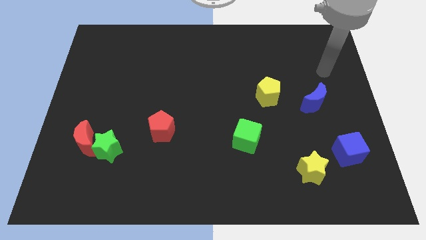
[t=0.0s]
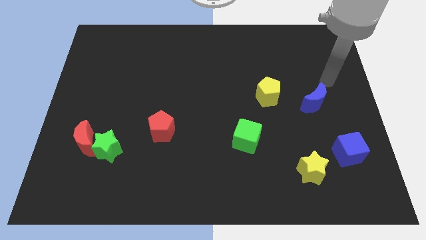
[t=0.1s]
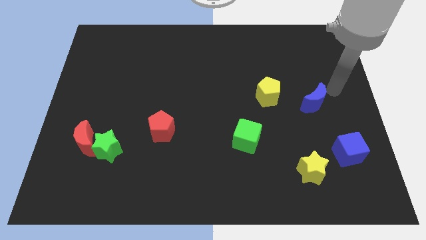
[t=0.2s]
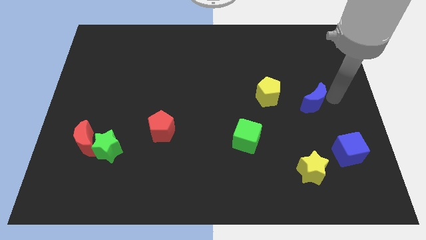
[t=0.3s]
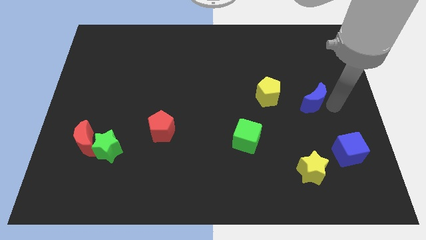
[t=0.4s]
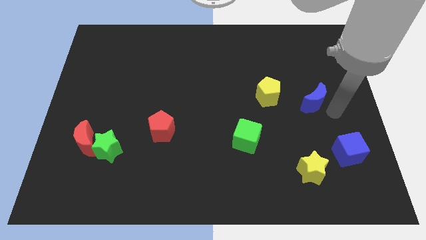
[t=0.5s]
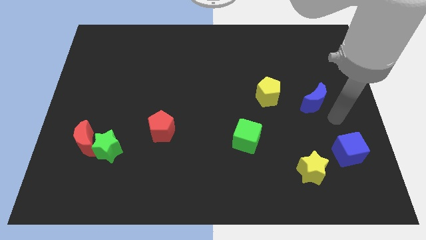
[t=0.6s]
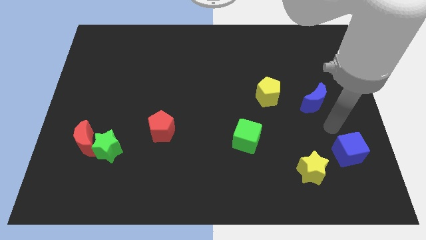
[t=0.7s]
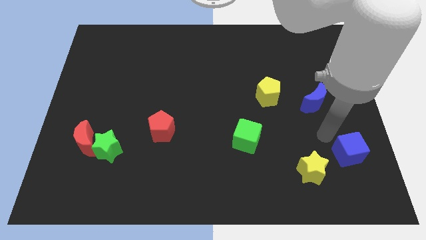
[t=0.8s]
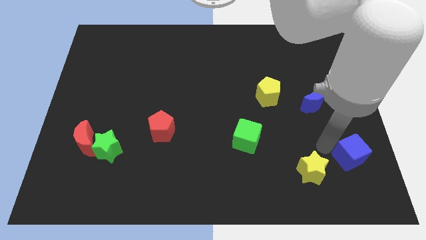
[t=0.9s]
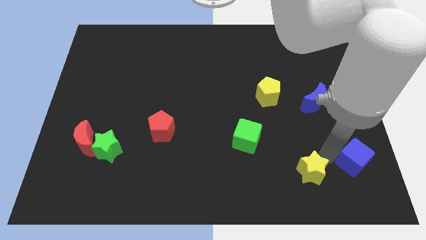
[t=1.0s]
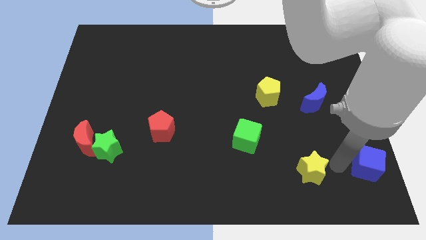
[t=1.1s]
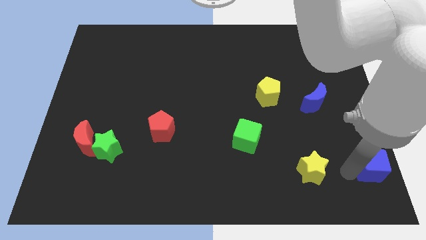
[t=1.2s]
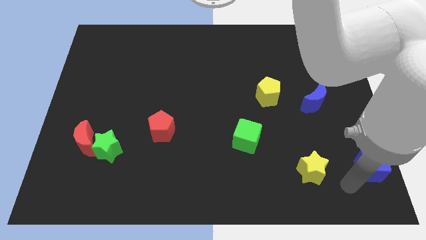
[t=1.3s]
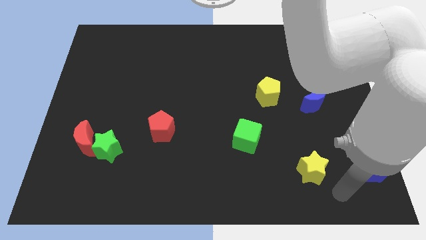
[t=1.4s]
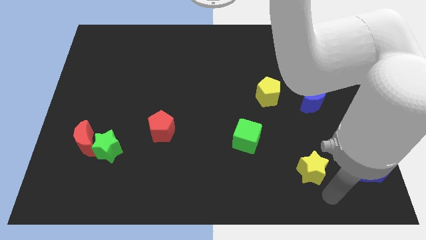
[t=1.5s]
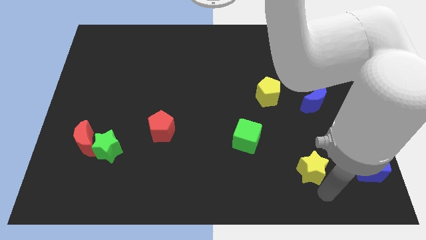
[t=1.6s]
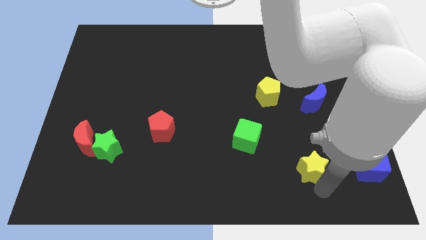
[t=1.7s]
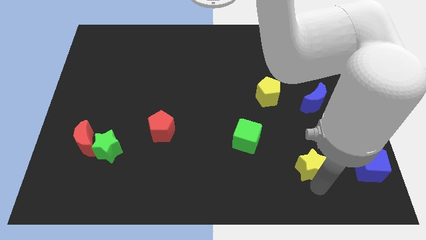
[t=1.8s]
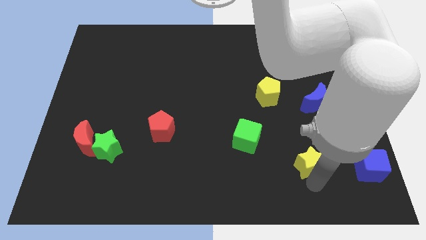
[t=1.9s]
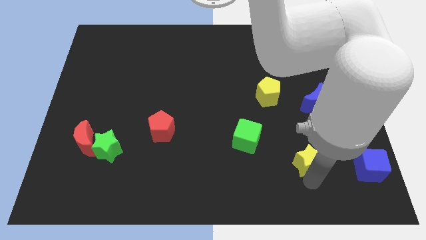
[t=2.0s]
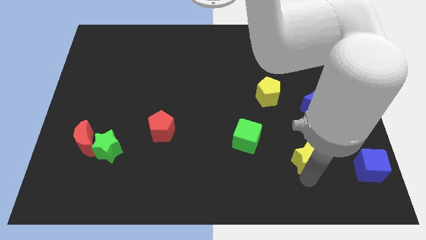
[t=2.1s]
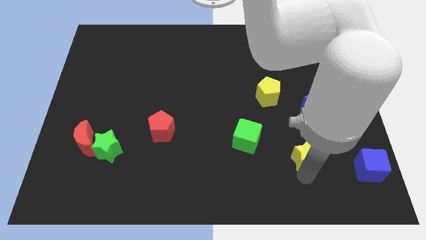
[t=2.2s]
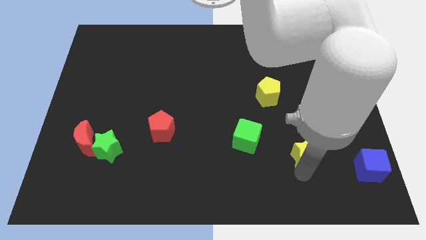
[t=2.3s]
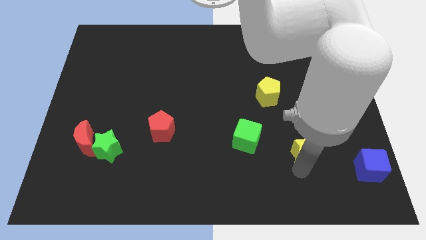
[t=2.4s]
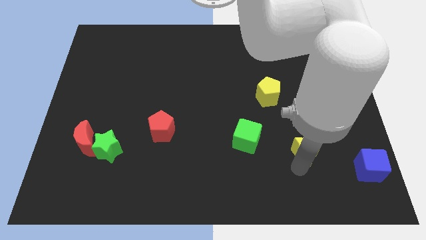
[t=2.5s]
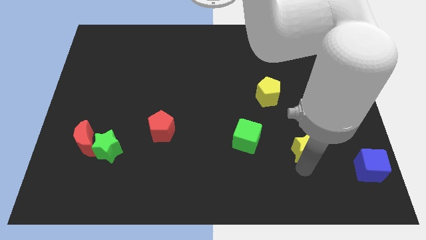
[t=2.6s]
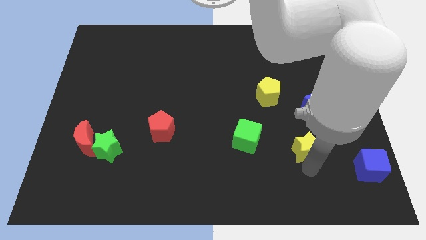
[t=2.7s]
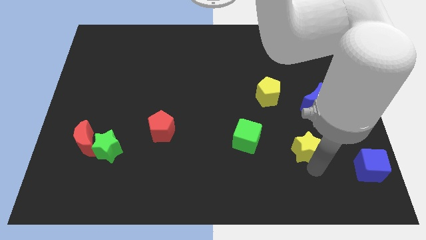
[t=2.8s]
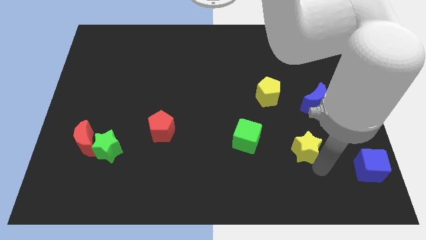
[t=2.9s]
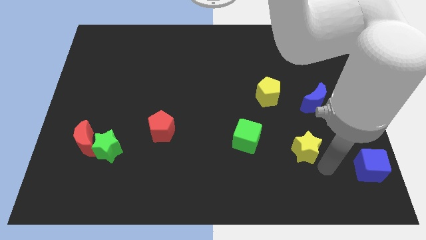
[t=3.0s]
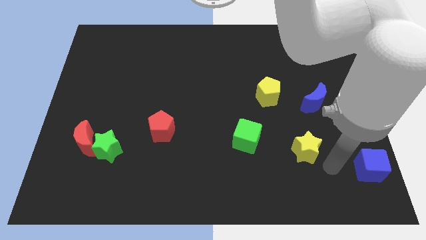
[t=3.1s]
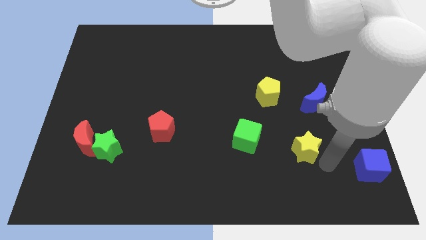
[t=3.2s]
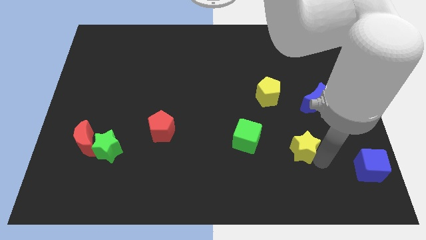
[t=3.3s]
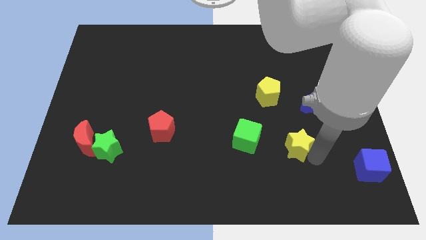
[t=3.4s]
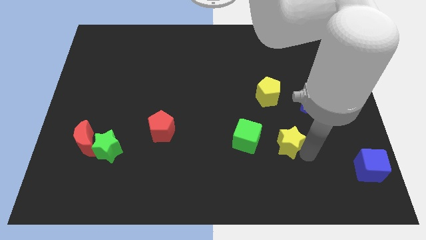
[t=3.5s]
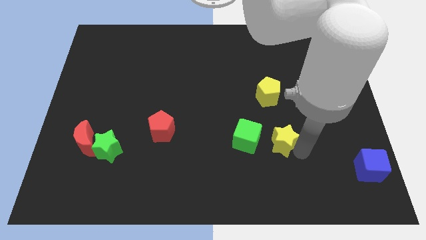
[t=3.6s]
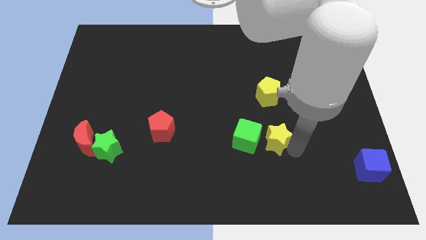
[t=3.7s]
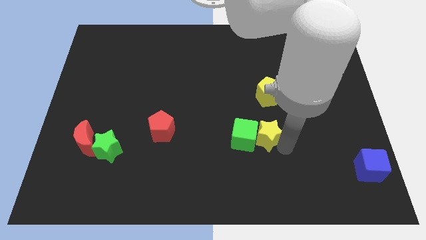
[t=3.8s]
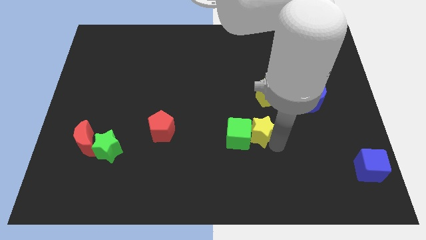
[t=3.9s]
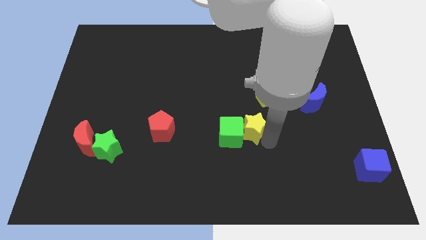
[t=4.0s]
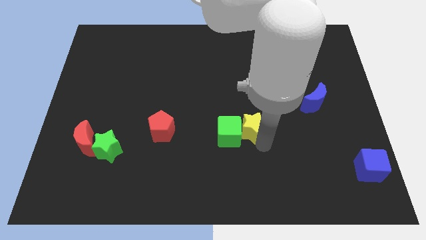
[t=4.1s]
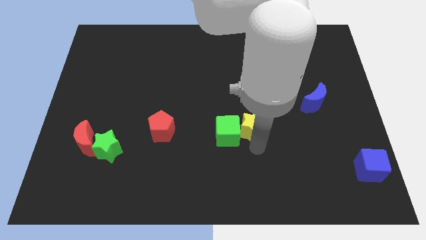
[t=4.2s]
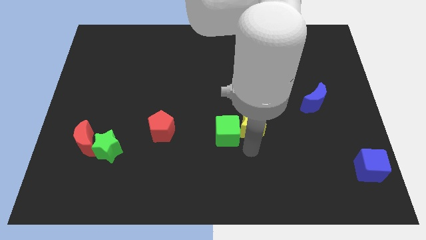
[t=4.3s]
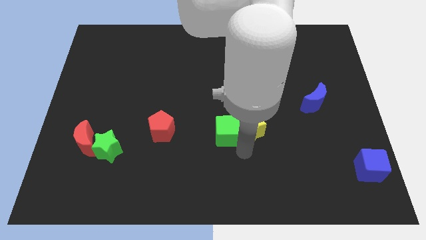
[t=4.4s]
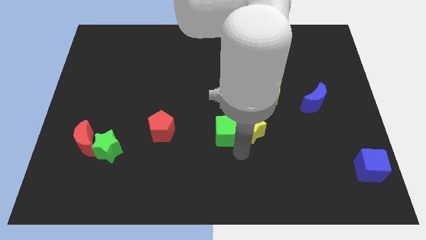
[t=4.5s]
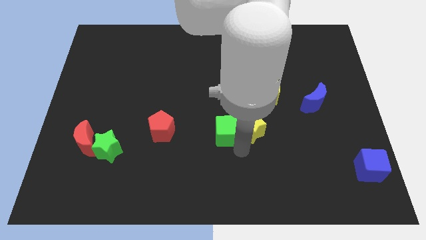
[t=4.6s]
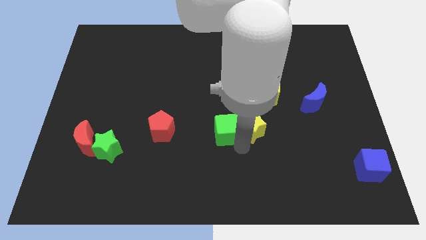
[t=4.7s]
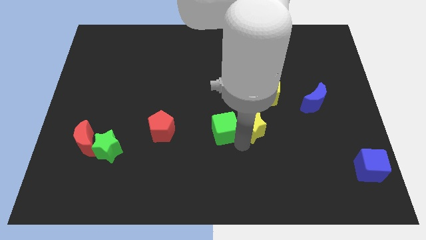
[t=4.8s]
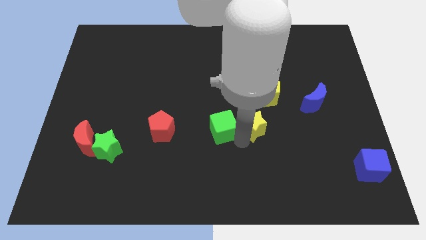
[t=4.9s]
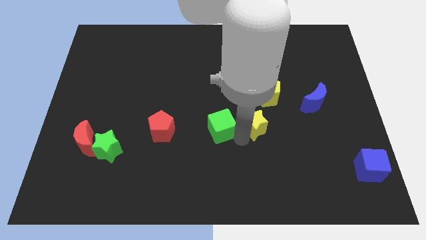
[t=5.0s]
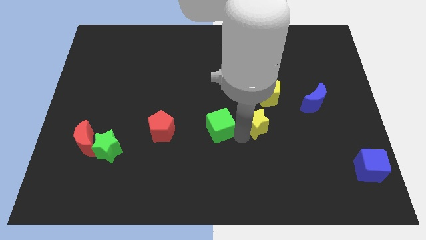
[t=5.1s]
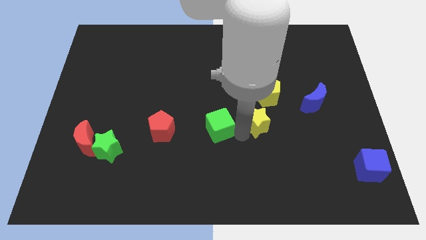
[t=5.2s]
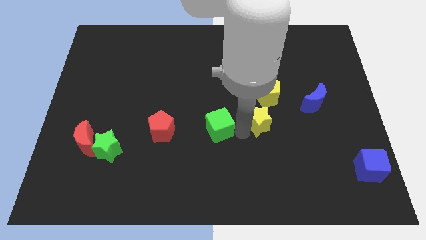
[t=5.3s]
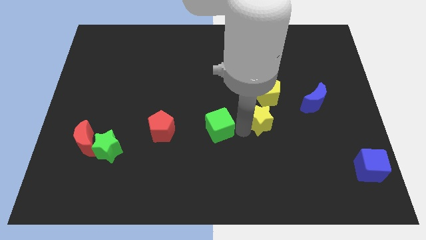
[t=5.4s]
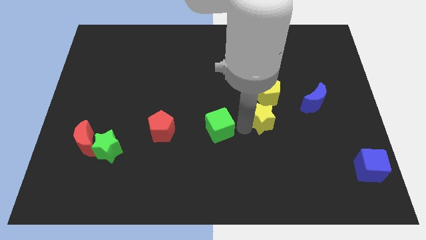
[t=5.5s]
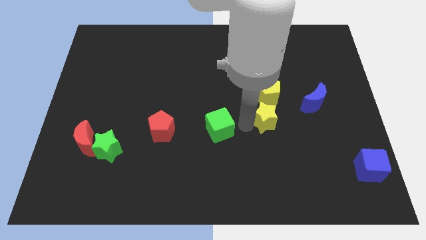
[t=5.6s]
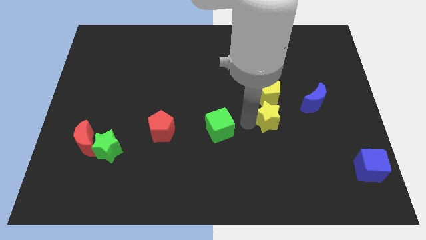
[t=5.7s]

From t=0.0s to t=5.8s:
move the yellow star left of the blue moon

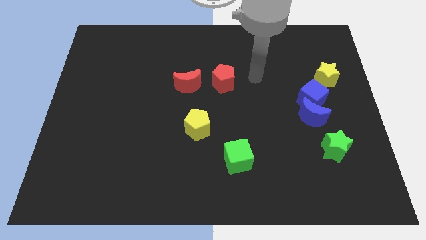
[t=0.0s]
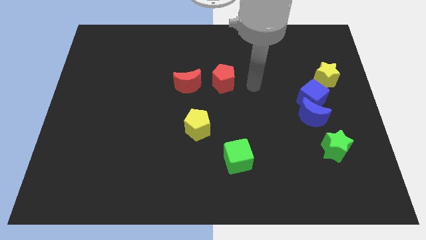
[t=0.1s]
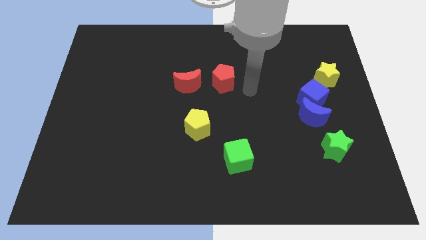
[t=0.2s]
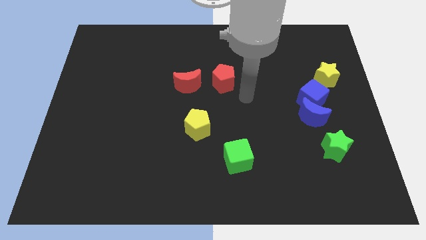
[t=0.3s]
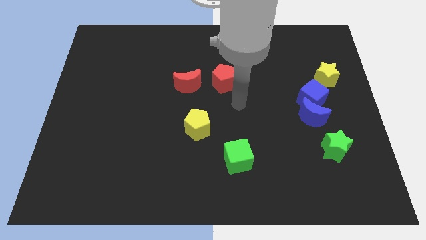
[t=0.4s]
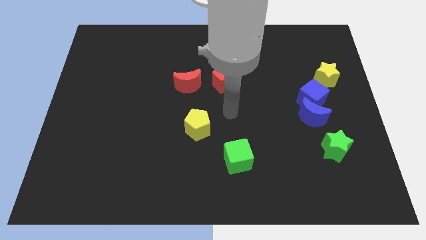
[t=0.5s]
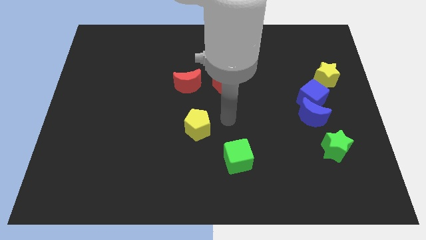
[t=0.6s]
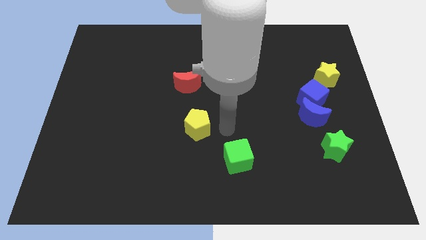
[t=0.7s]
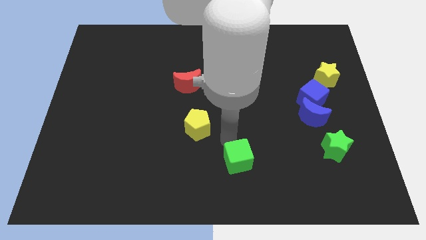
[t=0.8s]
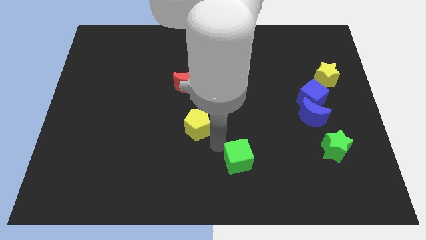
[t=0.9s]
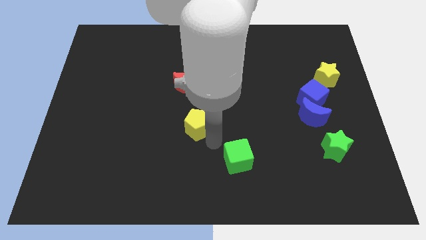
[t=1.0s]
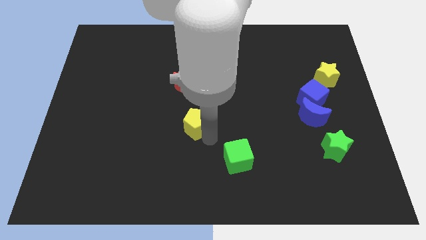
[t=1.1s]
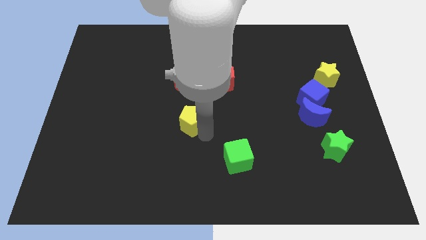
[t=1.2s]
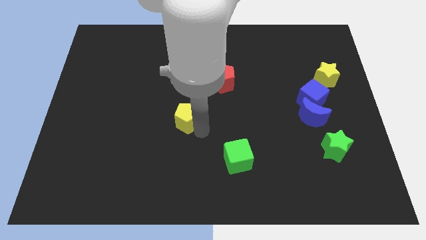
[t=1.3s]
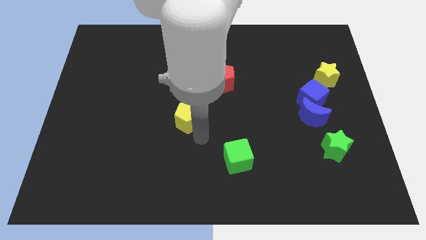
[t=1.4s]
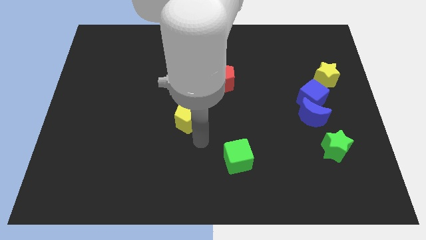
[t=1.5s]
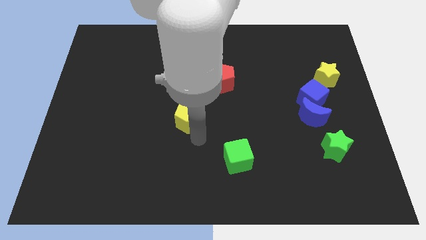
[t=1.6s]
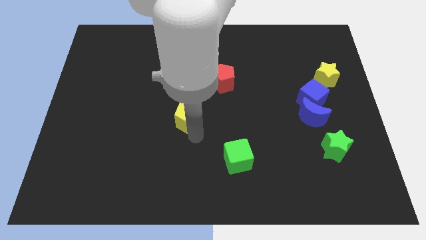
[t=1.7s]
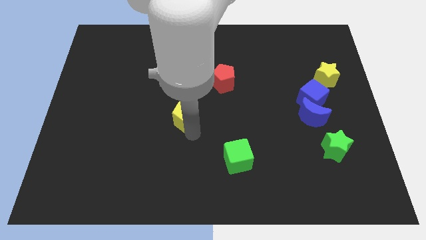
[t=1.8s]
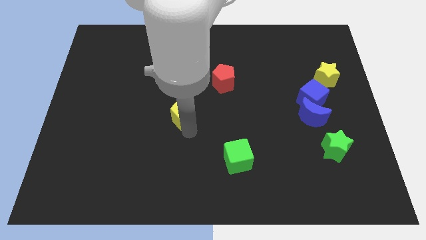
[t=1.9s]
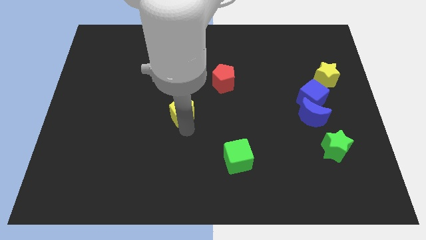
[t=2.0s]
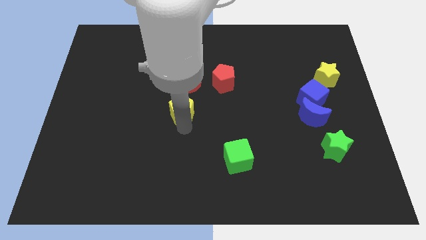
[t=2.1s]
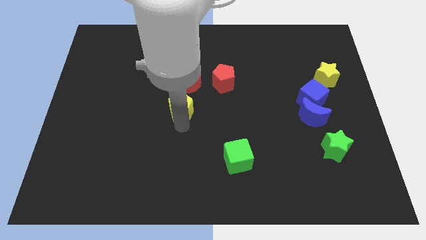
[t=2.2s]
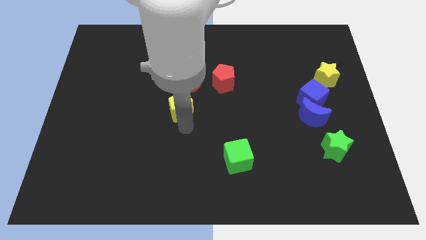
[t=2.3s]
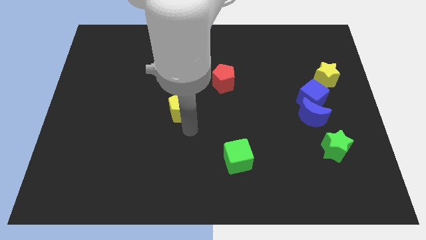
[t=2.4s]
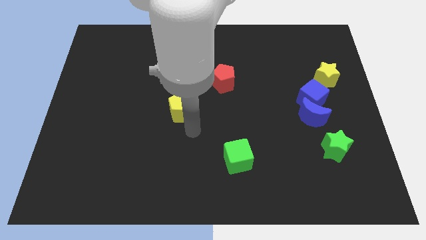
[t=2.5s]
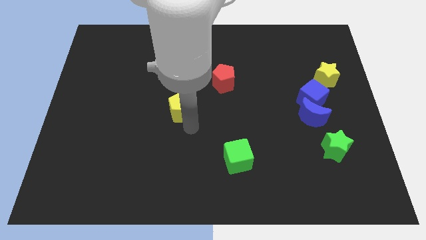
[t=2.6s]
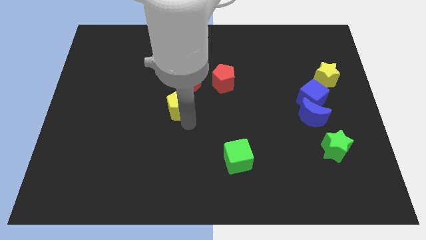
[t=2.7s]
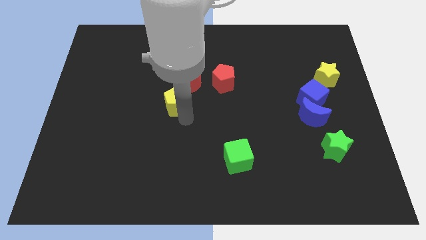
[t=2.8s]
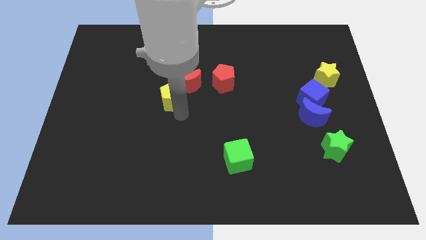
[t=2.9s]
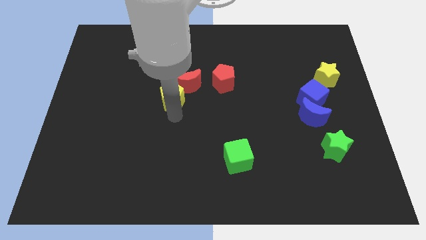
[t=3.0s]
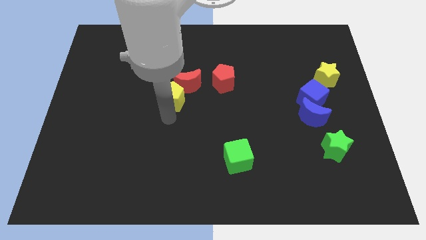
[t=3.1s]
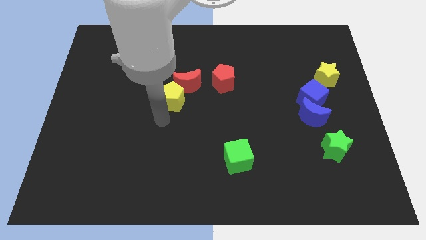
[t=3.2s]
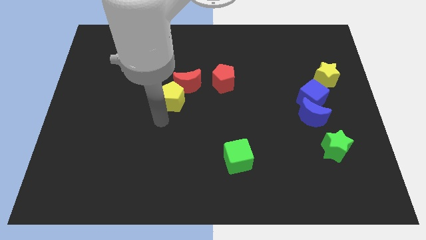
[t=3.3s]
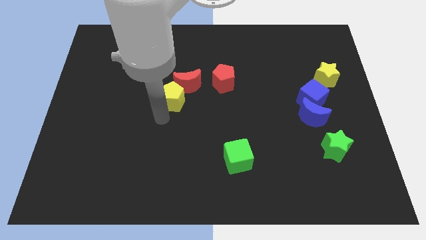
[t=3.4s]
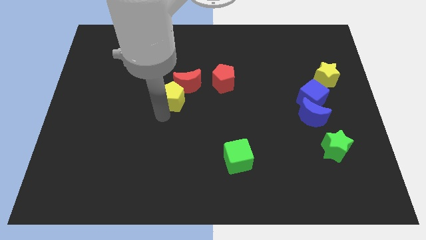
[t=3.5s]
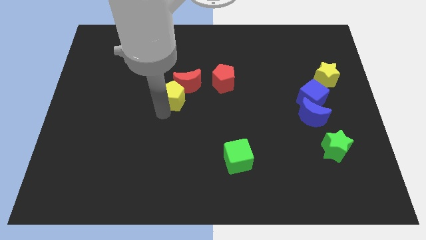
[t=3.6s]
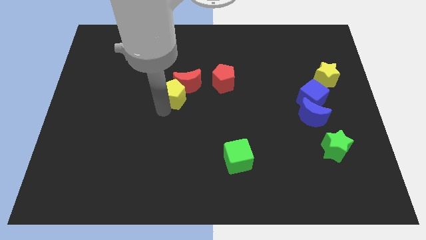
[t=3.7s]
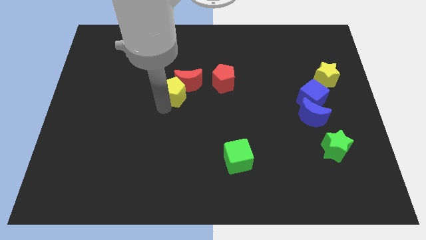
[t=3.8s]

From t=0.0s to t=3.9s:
put the yellow pentagon to the left of the red pentagon
